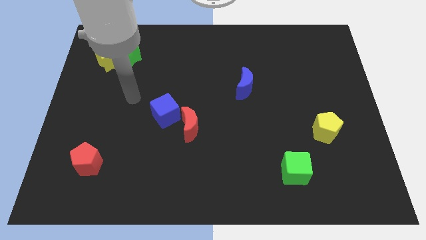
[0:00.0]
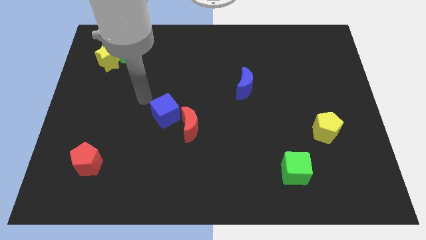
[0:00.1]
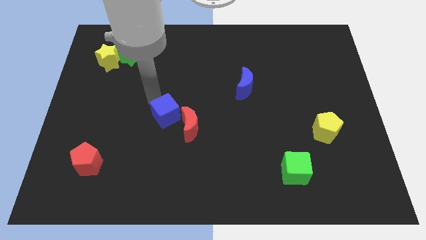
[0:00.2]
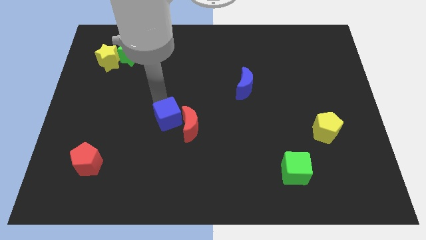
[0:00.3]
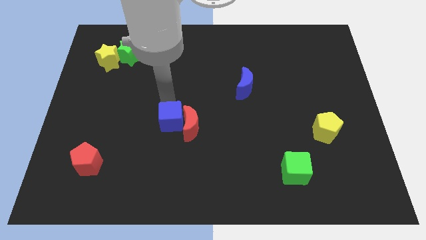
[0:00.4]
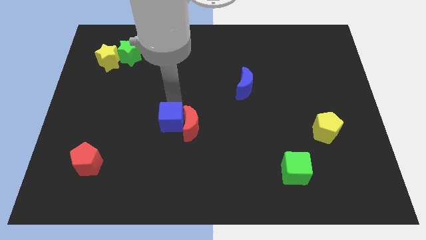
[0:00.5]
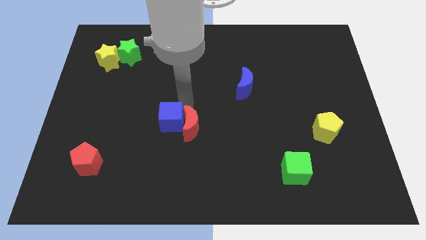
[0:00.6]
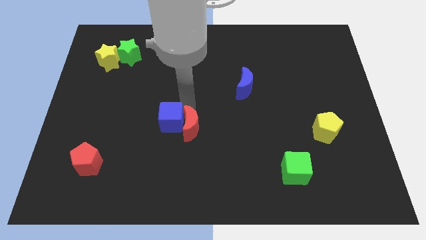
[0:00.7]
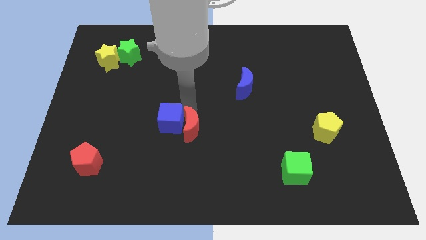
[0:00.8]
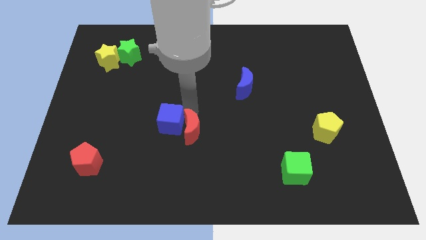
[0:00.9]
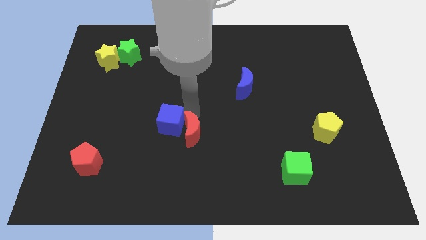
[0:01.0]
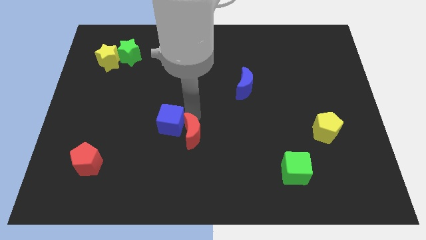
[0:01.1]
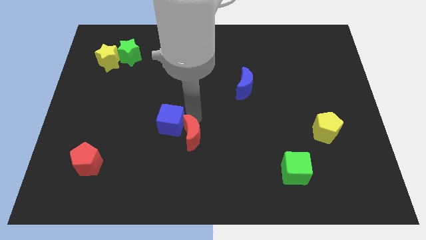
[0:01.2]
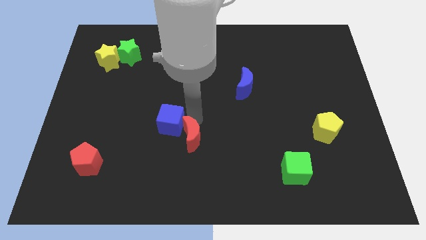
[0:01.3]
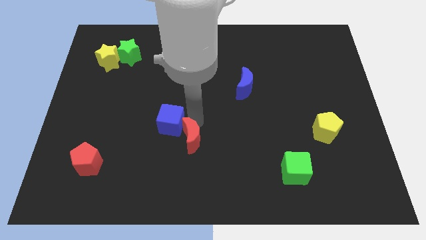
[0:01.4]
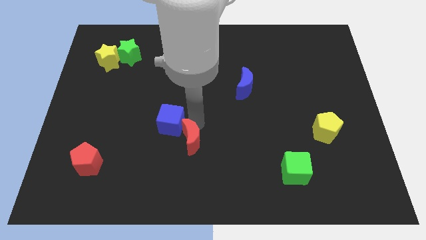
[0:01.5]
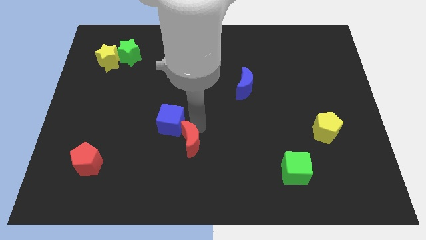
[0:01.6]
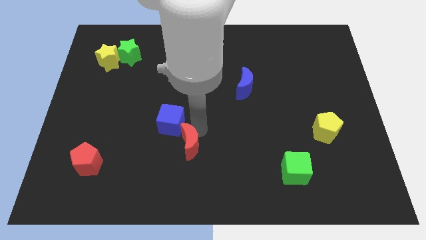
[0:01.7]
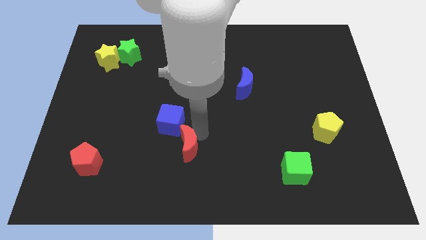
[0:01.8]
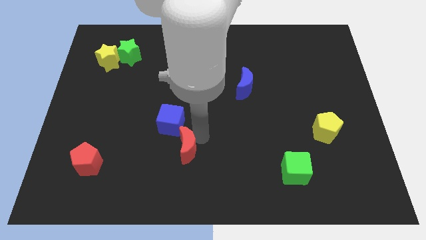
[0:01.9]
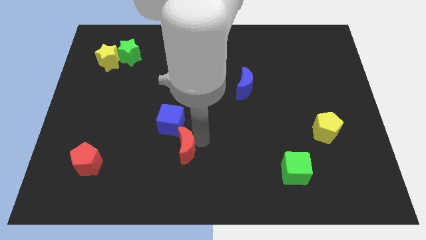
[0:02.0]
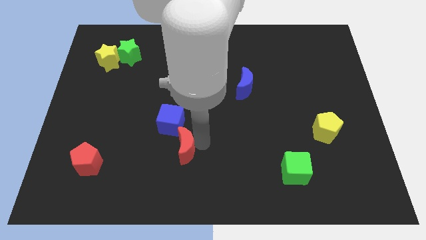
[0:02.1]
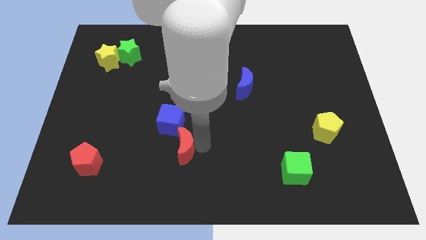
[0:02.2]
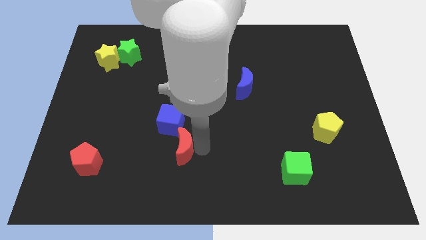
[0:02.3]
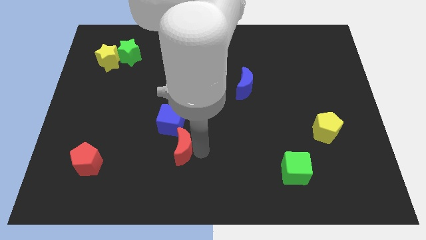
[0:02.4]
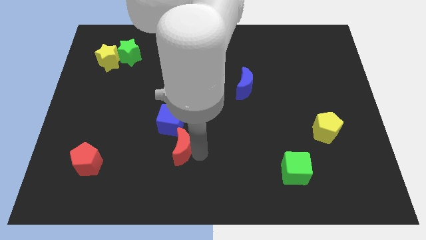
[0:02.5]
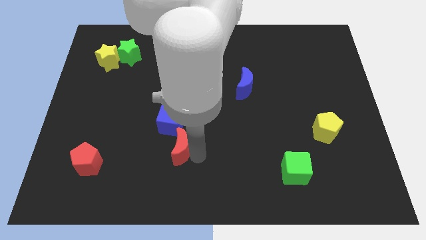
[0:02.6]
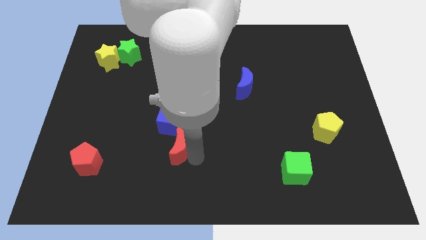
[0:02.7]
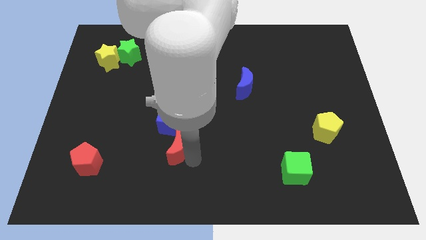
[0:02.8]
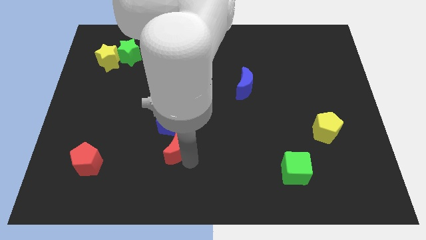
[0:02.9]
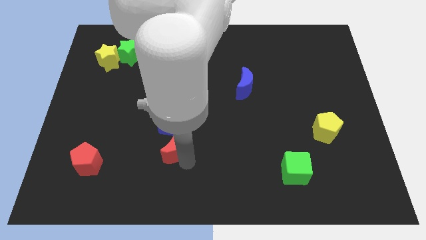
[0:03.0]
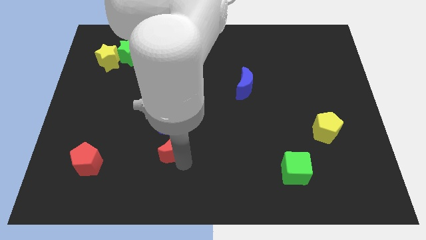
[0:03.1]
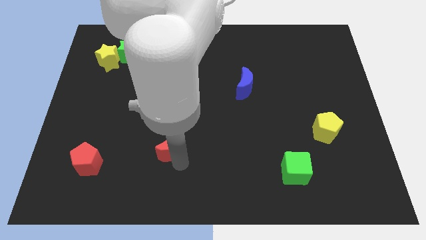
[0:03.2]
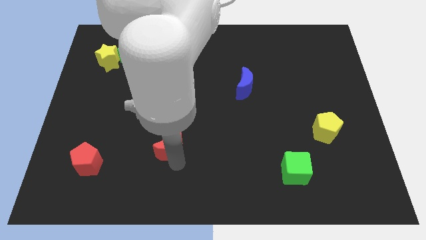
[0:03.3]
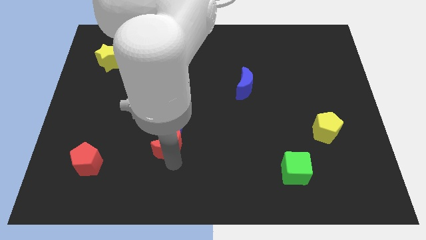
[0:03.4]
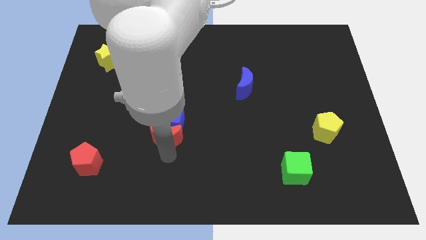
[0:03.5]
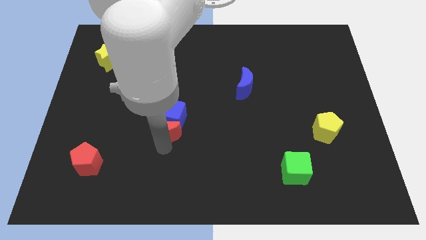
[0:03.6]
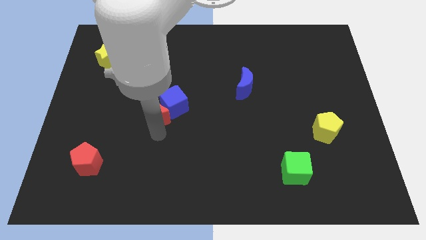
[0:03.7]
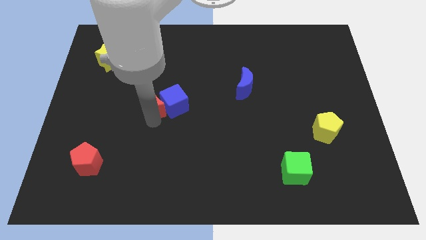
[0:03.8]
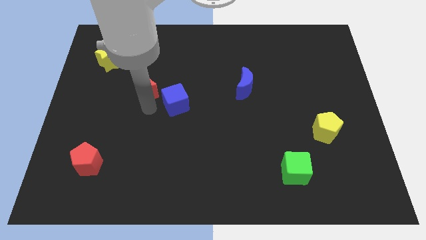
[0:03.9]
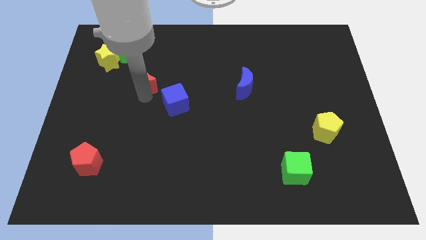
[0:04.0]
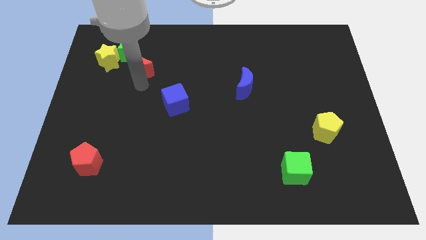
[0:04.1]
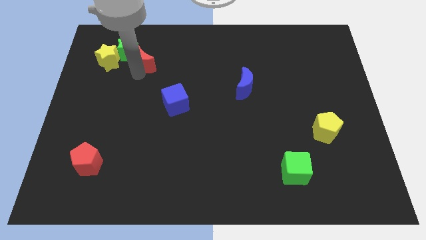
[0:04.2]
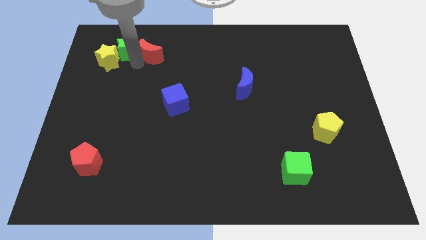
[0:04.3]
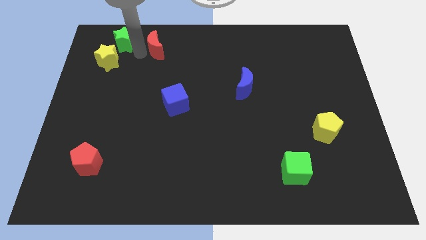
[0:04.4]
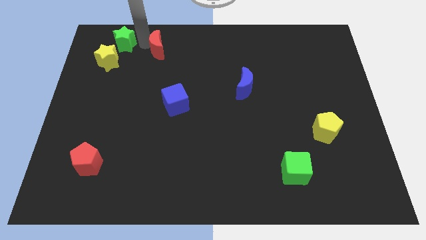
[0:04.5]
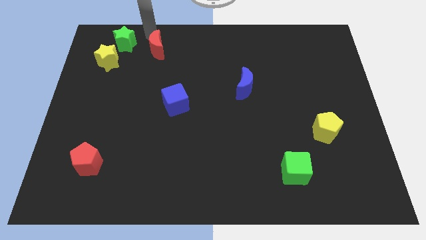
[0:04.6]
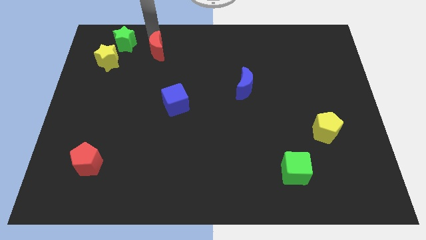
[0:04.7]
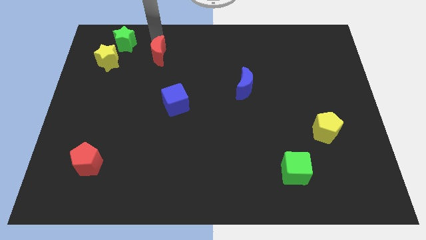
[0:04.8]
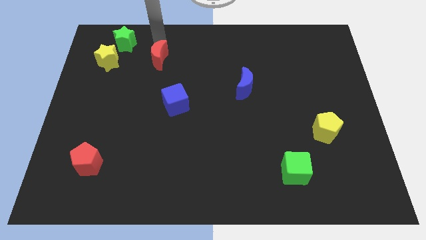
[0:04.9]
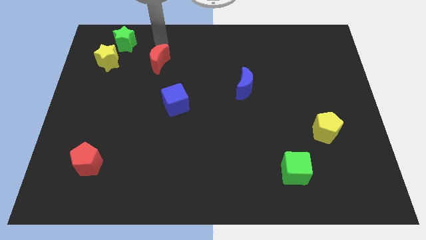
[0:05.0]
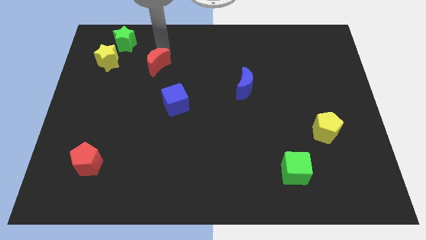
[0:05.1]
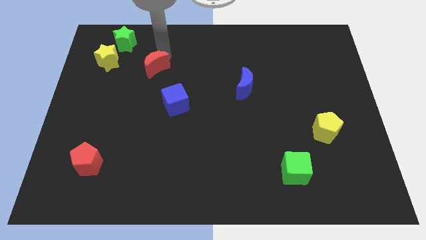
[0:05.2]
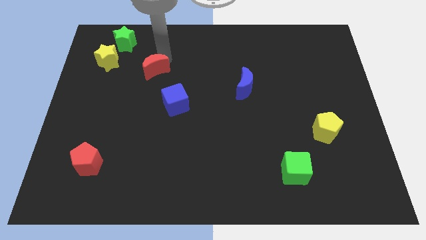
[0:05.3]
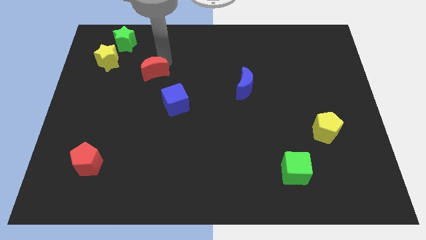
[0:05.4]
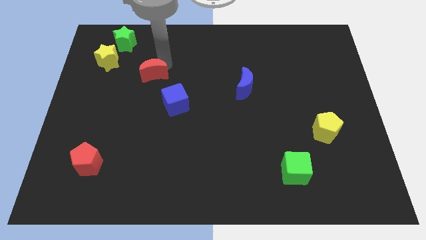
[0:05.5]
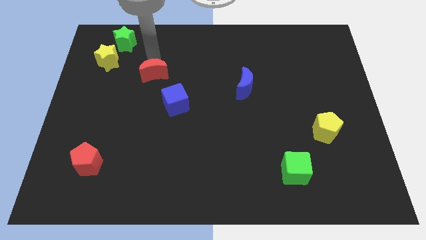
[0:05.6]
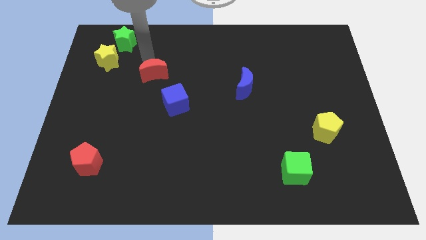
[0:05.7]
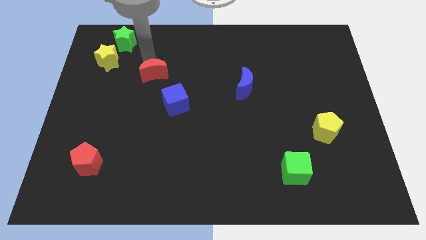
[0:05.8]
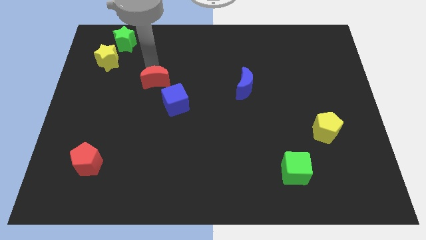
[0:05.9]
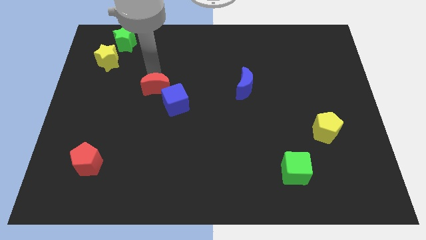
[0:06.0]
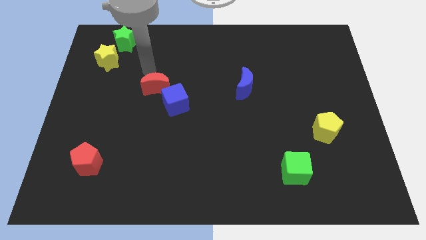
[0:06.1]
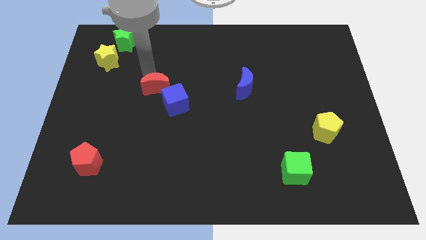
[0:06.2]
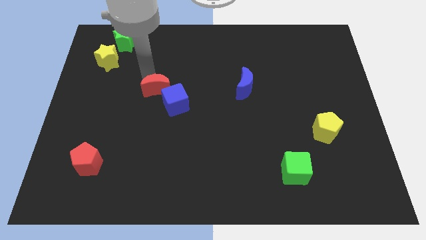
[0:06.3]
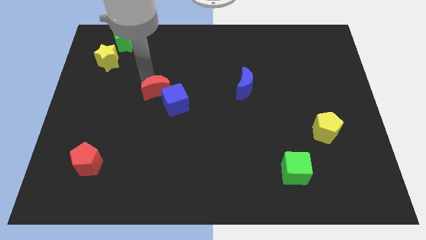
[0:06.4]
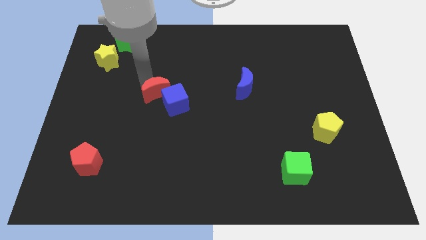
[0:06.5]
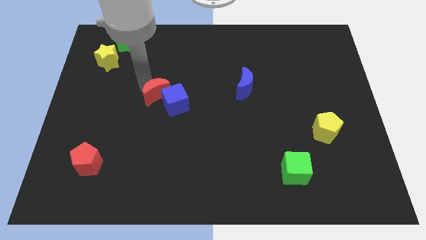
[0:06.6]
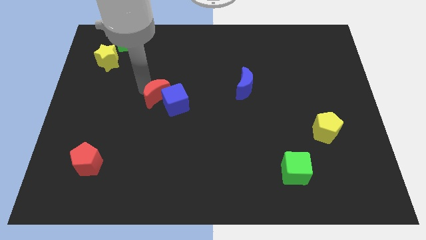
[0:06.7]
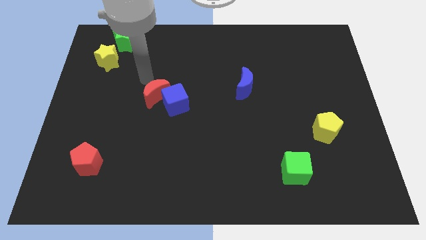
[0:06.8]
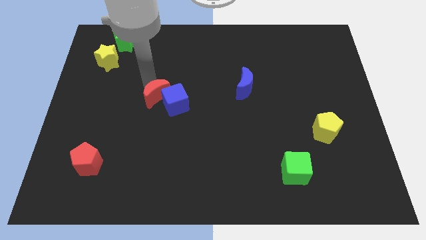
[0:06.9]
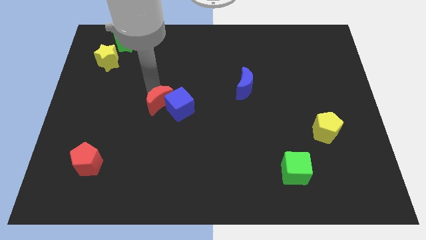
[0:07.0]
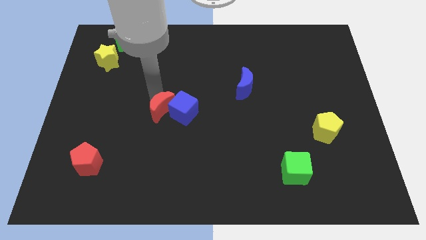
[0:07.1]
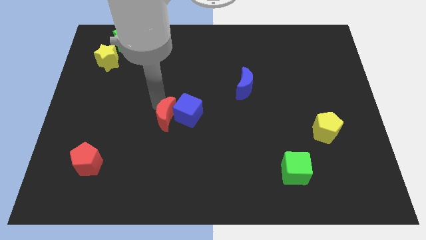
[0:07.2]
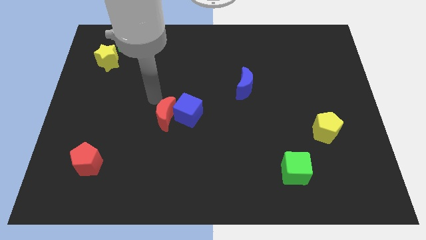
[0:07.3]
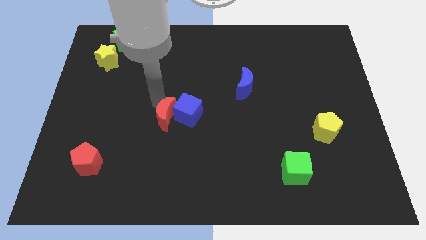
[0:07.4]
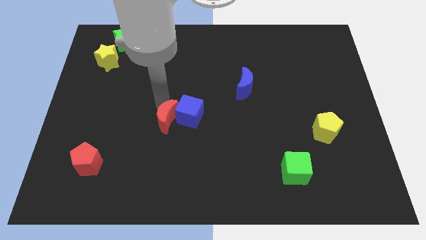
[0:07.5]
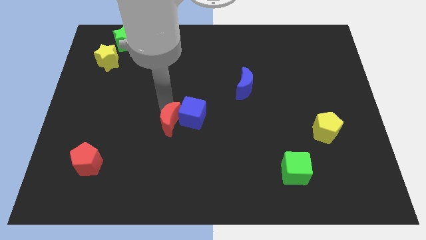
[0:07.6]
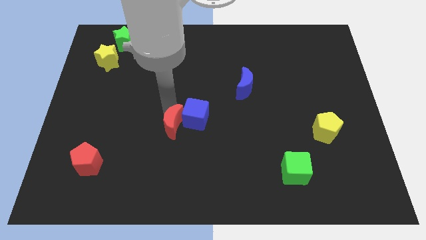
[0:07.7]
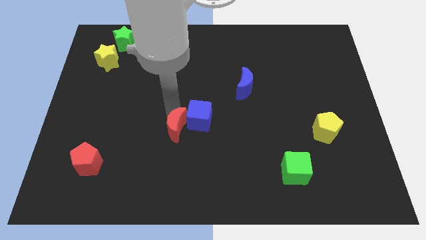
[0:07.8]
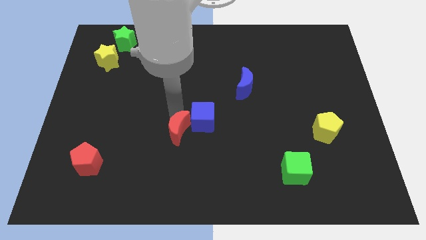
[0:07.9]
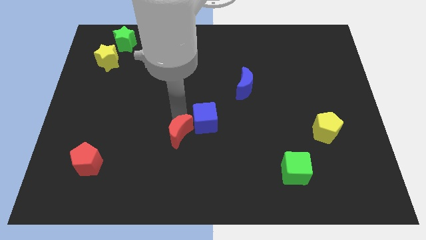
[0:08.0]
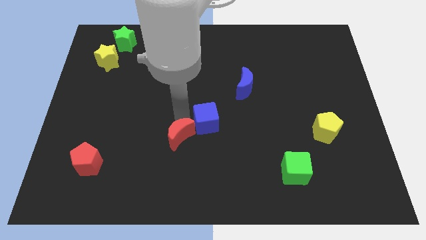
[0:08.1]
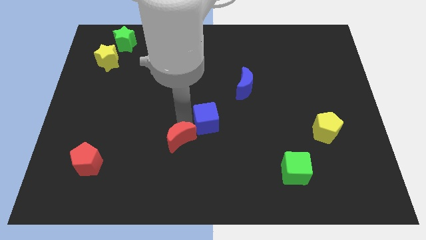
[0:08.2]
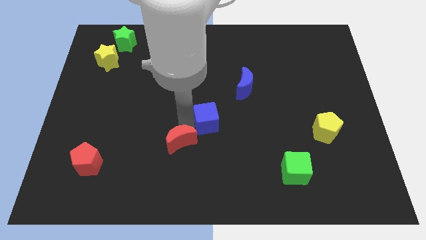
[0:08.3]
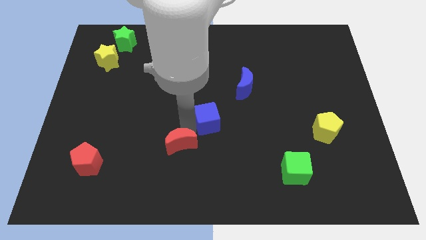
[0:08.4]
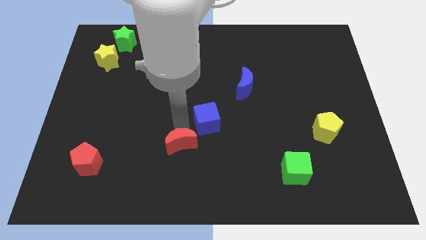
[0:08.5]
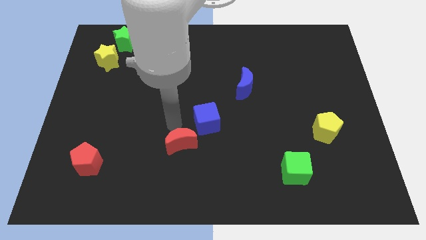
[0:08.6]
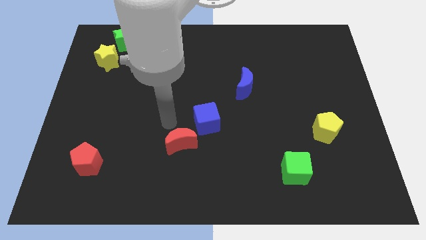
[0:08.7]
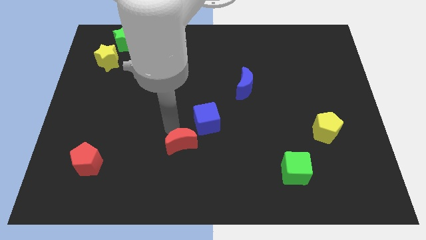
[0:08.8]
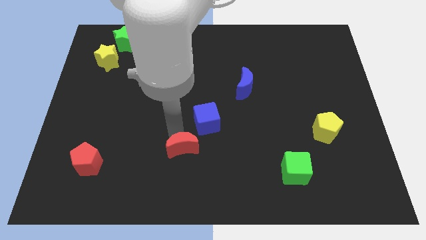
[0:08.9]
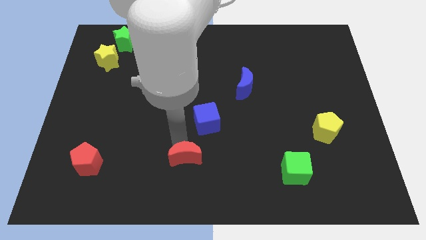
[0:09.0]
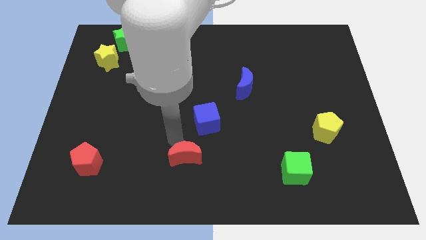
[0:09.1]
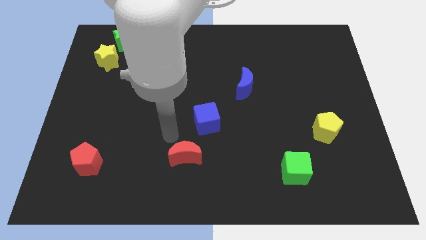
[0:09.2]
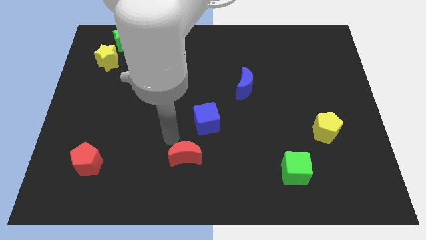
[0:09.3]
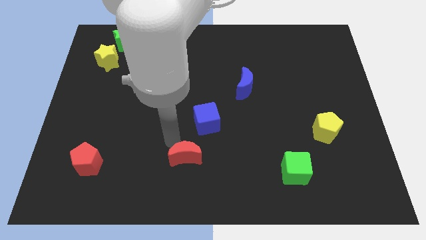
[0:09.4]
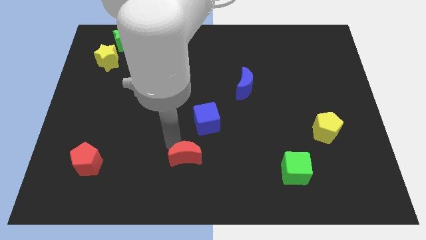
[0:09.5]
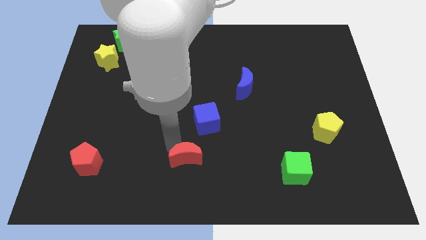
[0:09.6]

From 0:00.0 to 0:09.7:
move the red moon to the bottom side
